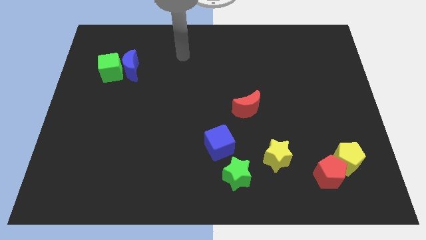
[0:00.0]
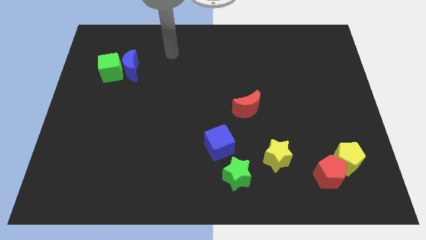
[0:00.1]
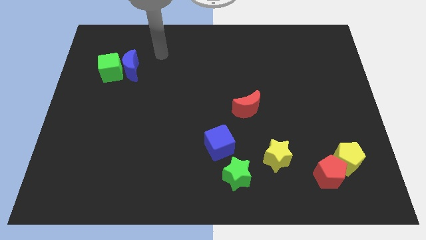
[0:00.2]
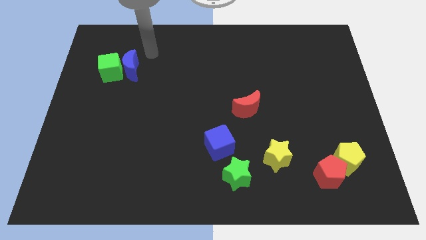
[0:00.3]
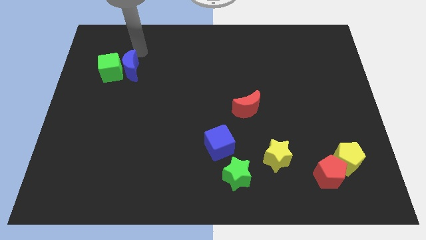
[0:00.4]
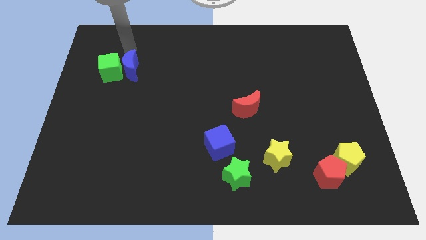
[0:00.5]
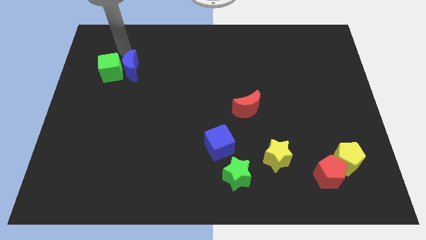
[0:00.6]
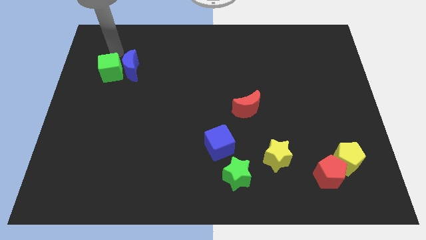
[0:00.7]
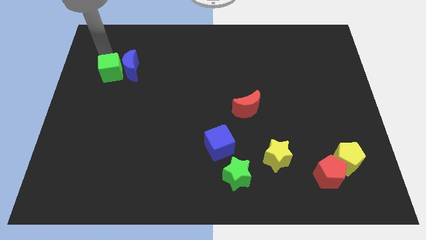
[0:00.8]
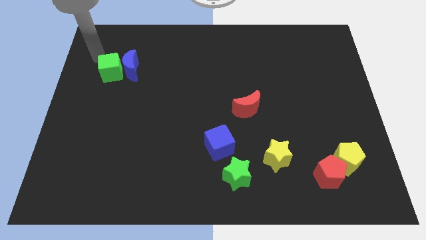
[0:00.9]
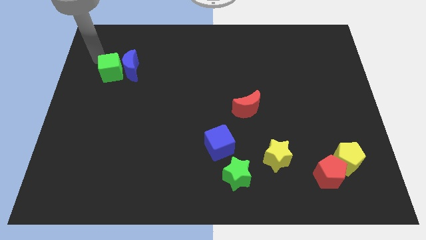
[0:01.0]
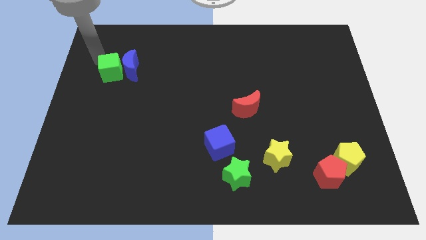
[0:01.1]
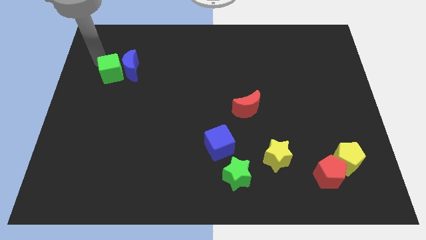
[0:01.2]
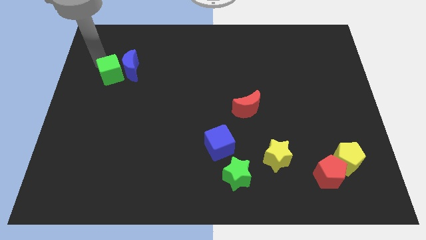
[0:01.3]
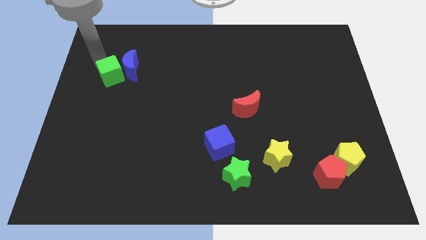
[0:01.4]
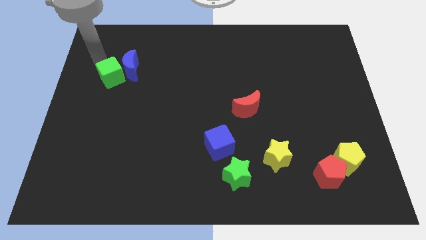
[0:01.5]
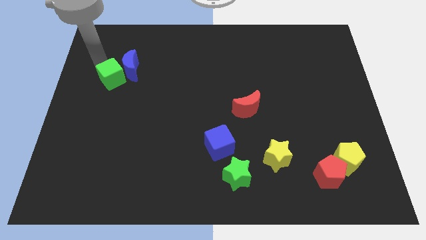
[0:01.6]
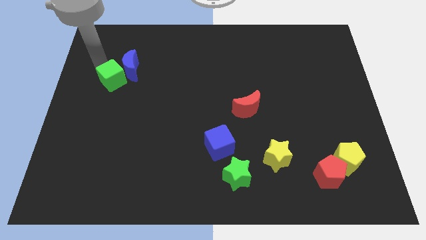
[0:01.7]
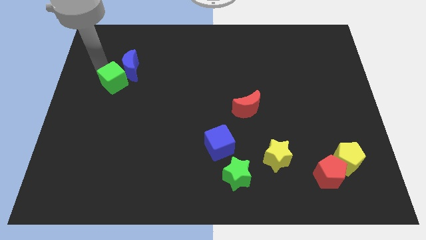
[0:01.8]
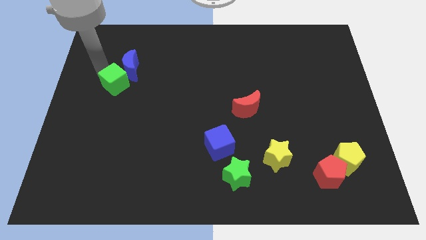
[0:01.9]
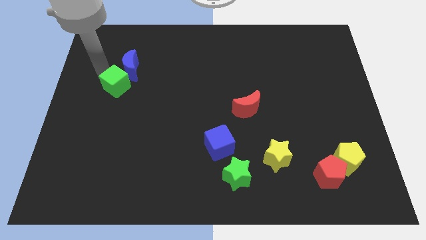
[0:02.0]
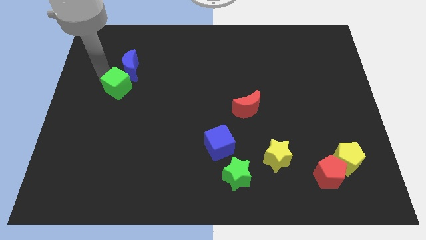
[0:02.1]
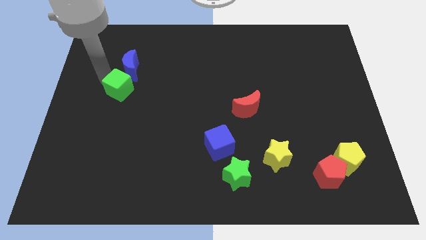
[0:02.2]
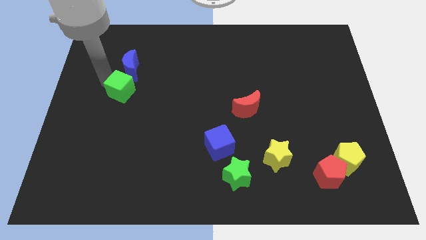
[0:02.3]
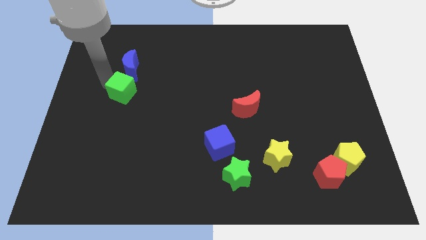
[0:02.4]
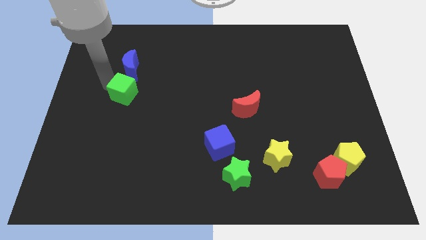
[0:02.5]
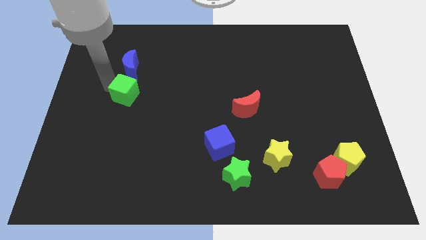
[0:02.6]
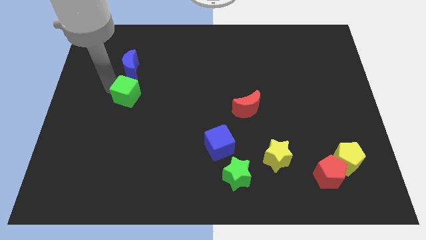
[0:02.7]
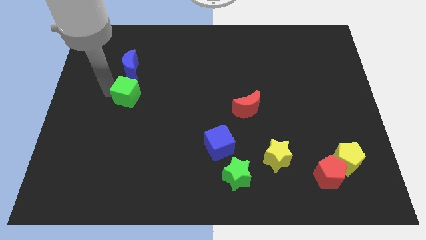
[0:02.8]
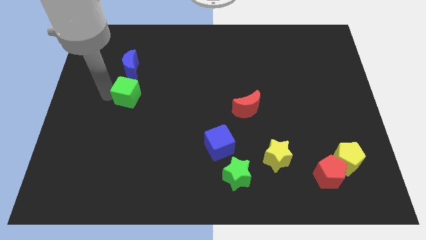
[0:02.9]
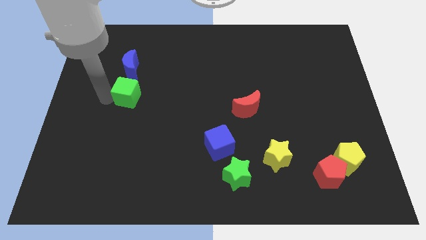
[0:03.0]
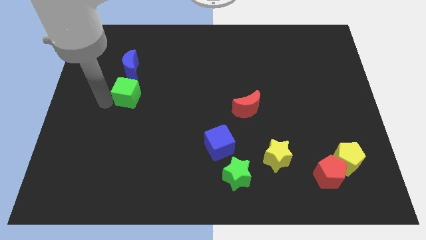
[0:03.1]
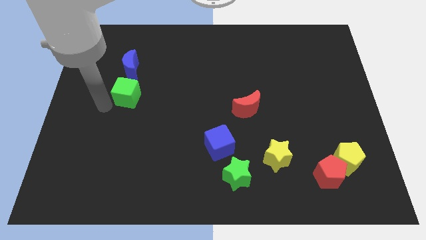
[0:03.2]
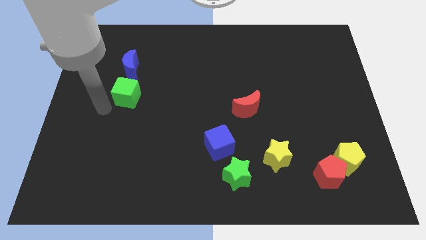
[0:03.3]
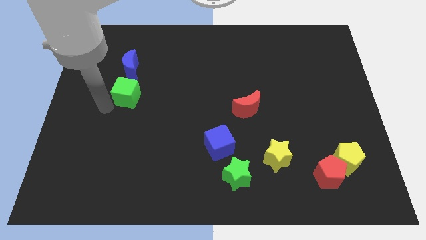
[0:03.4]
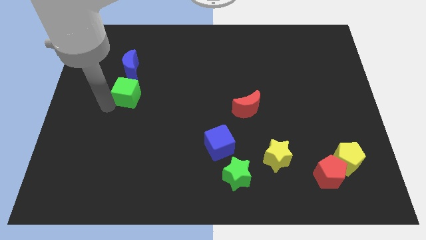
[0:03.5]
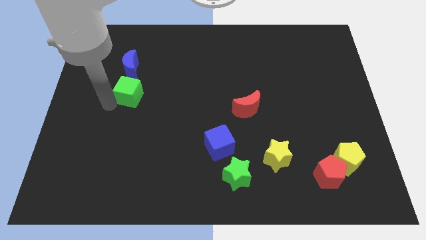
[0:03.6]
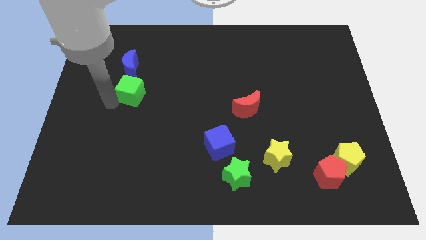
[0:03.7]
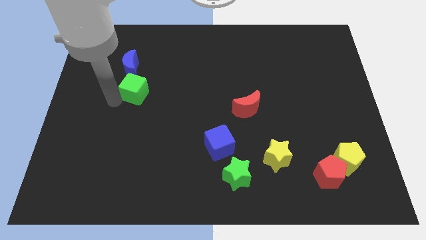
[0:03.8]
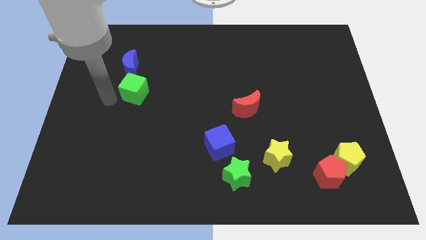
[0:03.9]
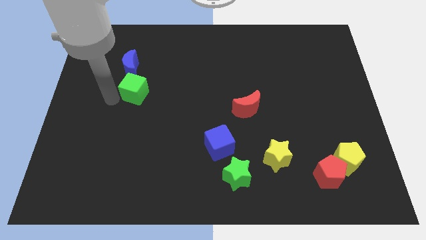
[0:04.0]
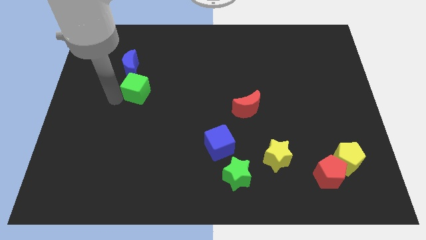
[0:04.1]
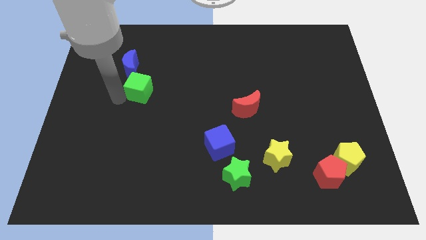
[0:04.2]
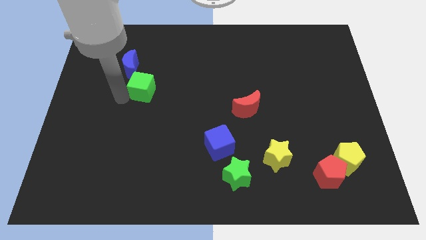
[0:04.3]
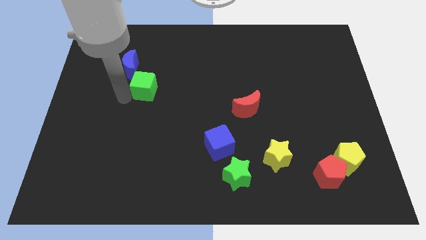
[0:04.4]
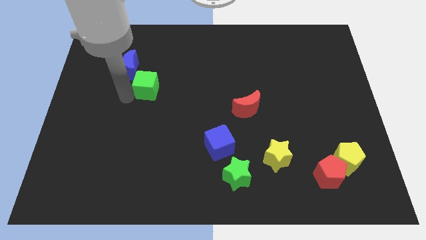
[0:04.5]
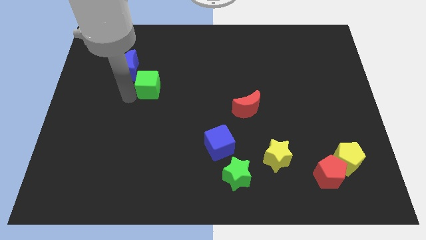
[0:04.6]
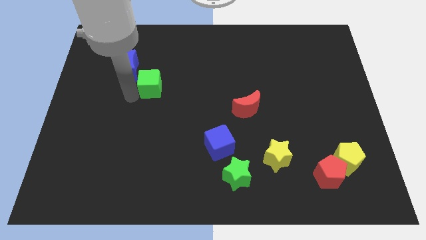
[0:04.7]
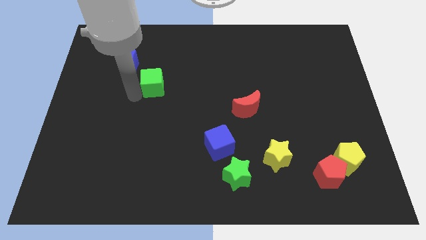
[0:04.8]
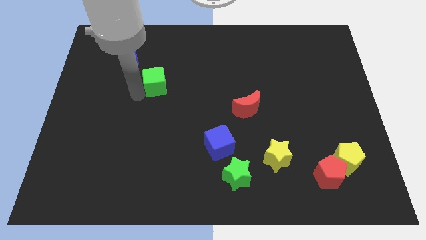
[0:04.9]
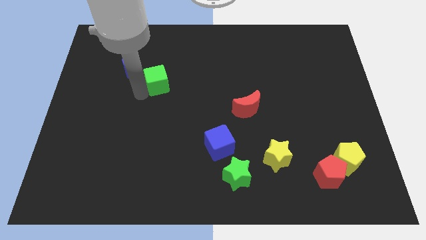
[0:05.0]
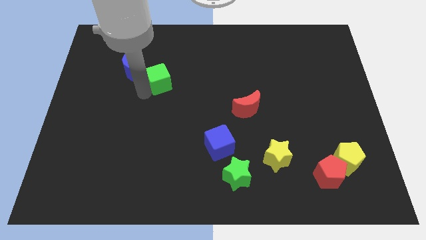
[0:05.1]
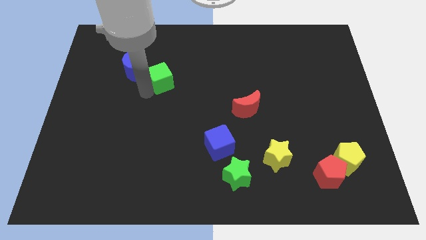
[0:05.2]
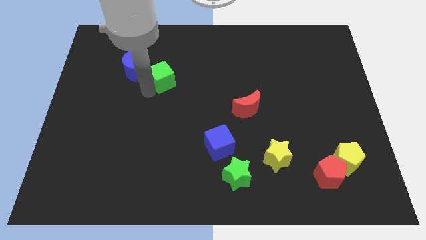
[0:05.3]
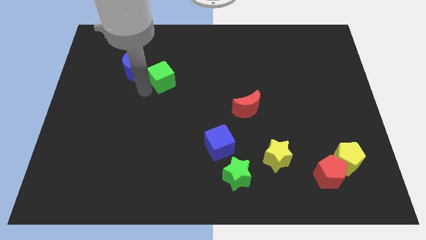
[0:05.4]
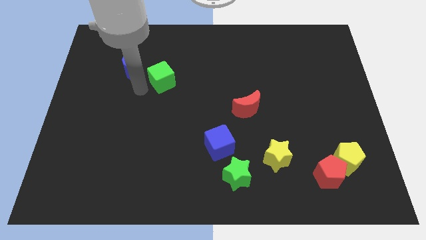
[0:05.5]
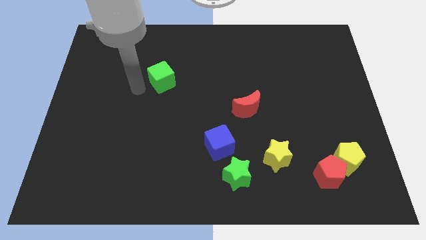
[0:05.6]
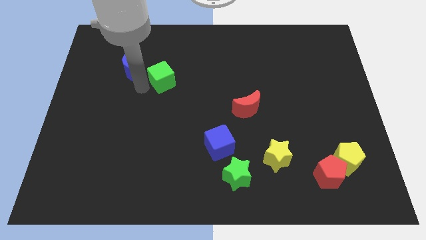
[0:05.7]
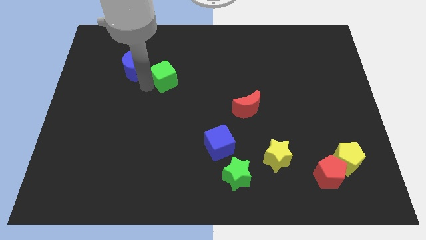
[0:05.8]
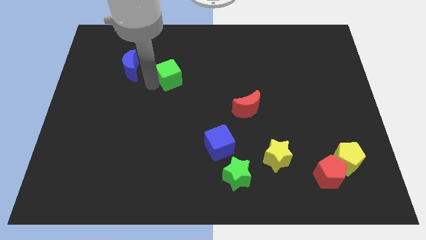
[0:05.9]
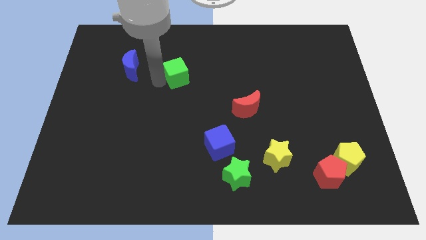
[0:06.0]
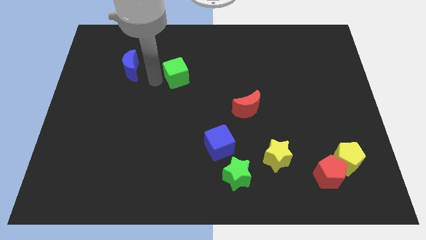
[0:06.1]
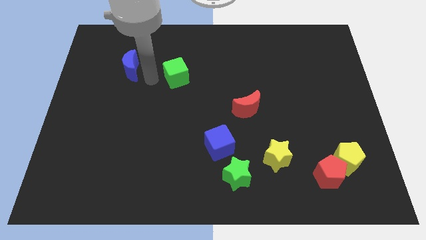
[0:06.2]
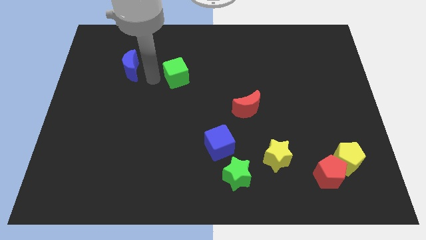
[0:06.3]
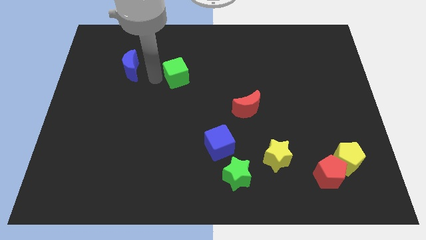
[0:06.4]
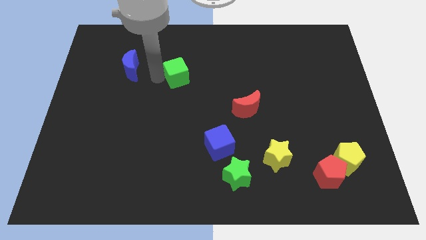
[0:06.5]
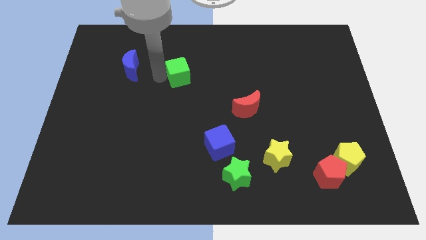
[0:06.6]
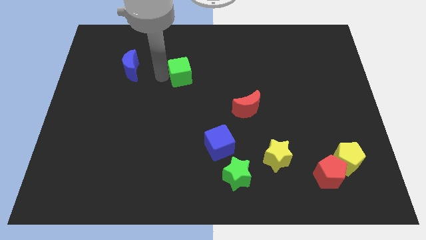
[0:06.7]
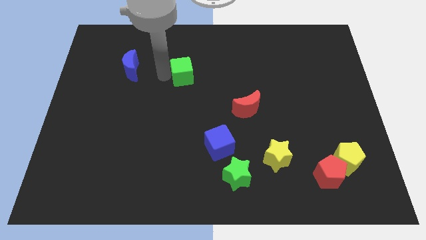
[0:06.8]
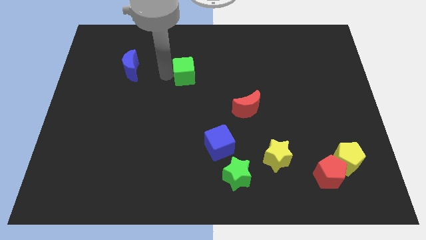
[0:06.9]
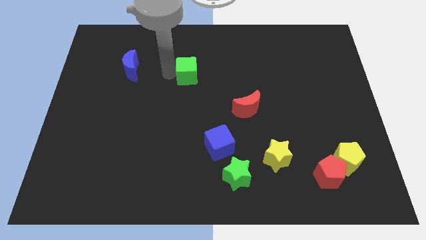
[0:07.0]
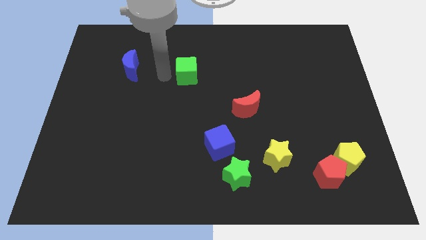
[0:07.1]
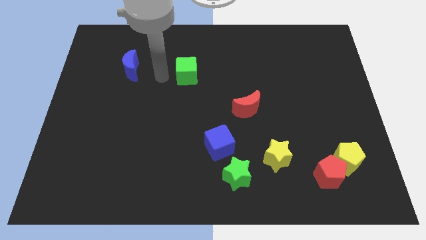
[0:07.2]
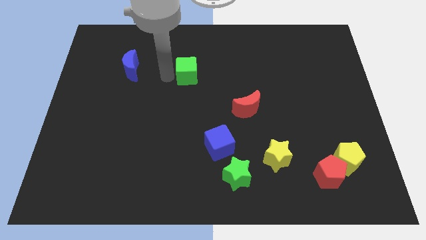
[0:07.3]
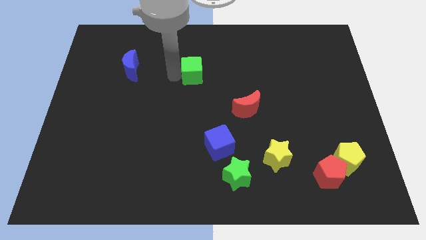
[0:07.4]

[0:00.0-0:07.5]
move the green cube to the right

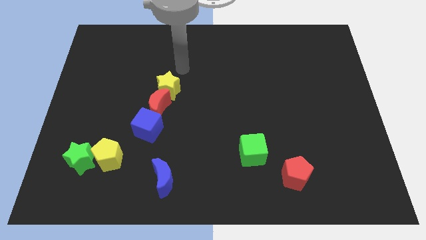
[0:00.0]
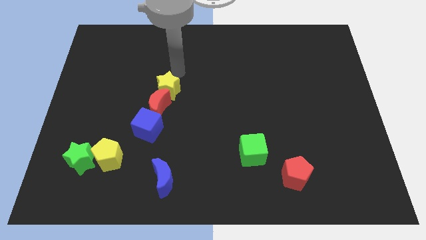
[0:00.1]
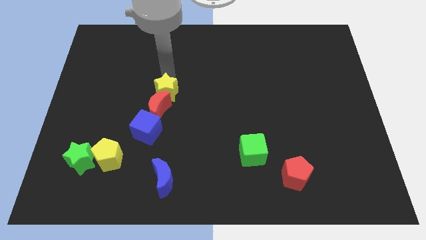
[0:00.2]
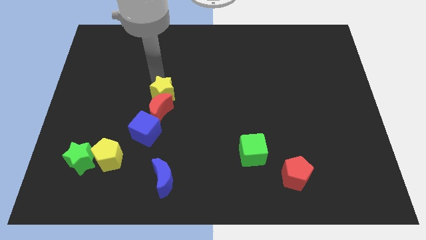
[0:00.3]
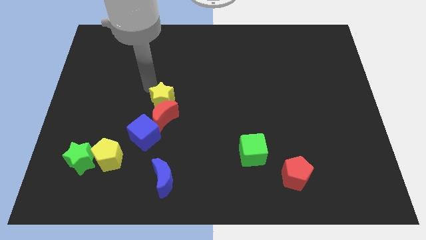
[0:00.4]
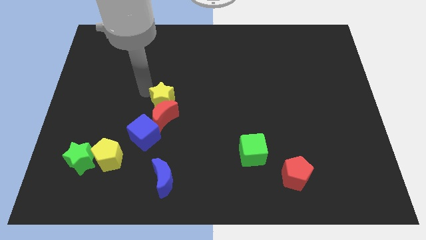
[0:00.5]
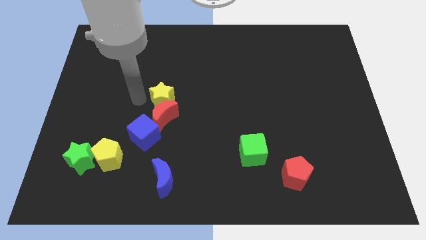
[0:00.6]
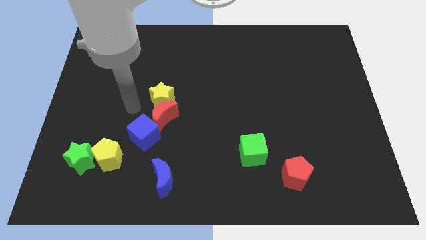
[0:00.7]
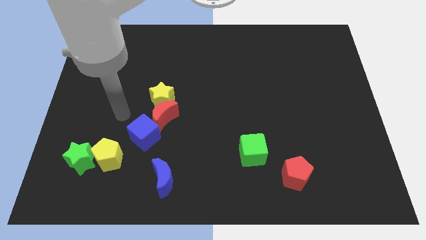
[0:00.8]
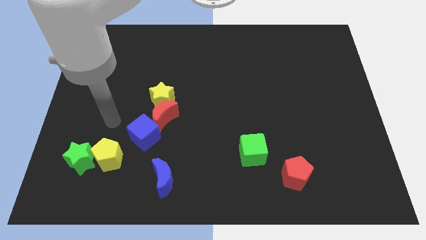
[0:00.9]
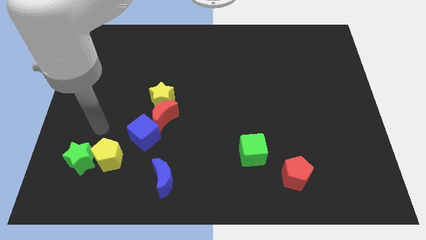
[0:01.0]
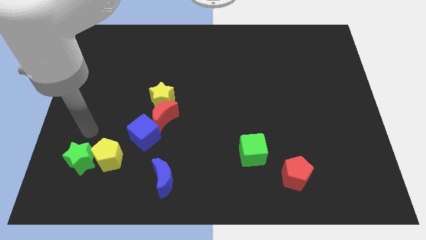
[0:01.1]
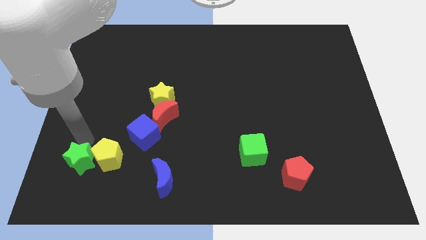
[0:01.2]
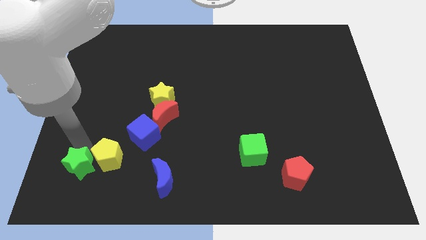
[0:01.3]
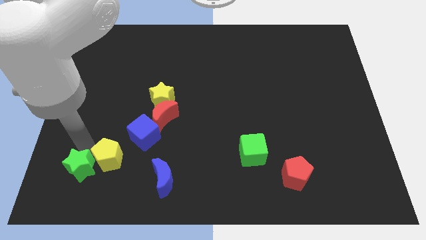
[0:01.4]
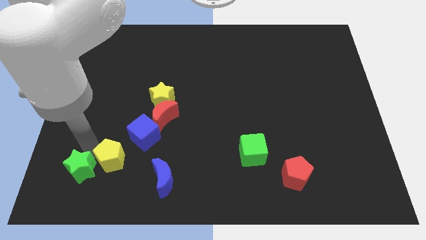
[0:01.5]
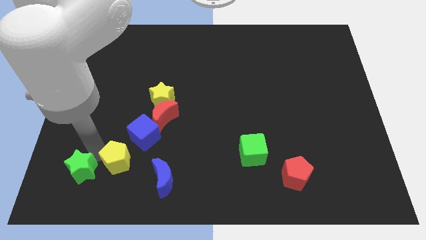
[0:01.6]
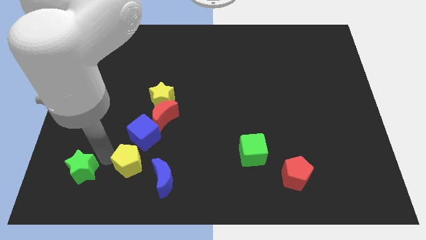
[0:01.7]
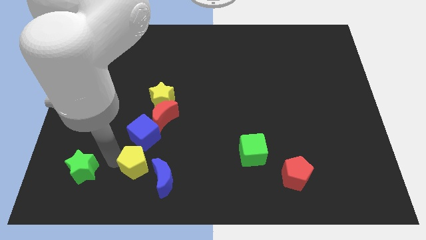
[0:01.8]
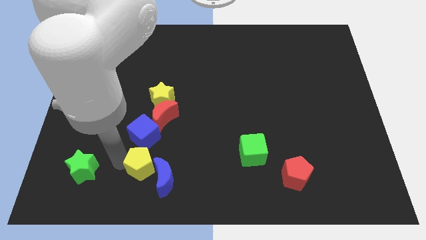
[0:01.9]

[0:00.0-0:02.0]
slide the yellow pentagon a bit to the right
